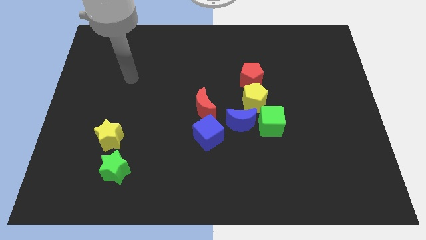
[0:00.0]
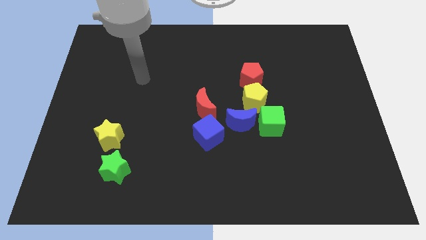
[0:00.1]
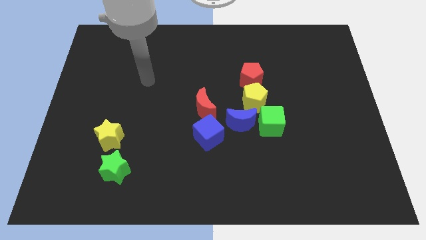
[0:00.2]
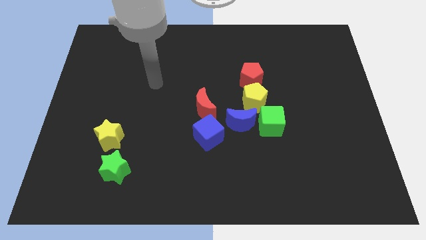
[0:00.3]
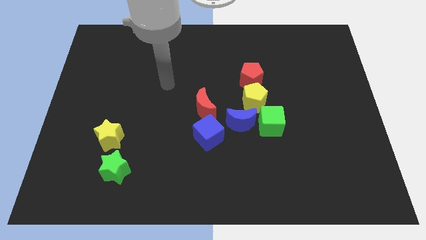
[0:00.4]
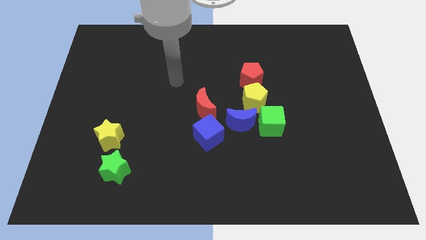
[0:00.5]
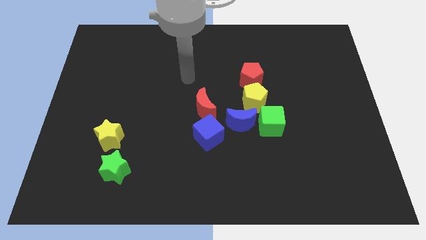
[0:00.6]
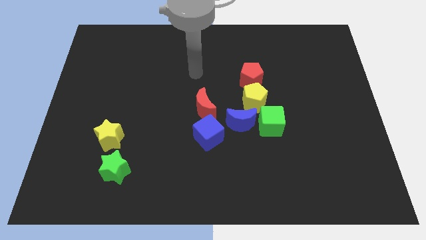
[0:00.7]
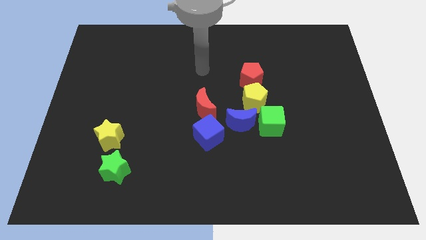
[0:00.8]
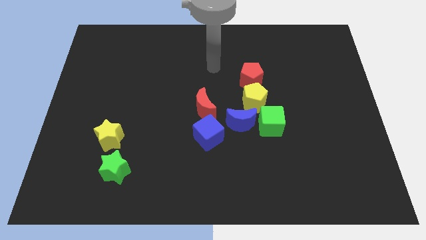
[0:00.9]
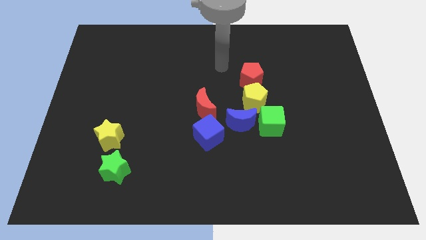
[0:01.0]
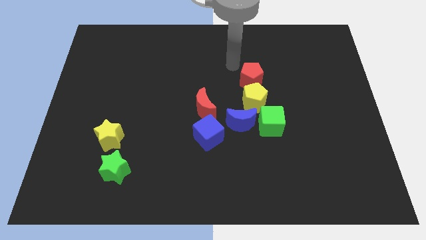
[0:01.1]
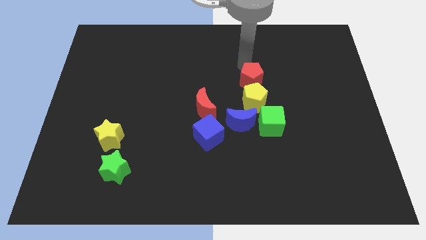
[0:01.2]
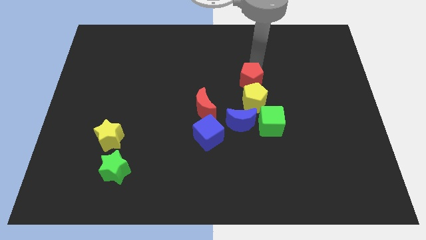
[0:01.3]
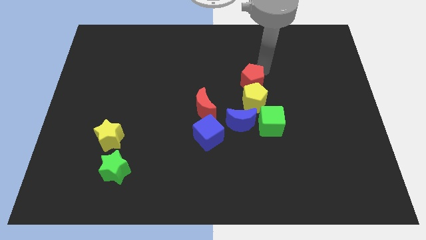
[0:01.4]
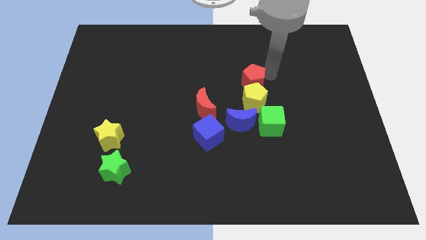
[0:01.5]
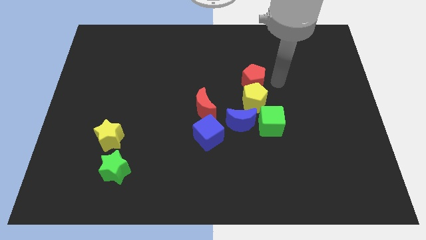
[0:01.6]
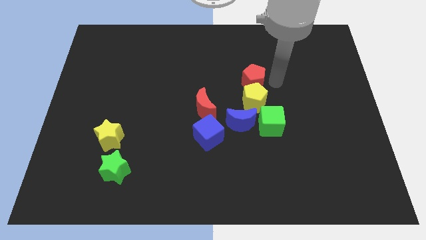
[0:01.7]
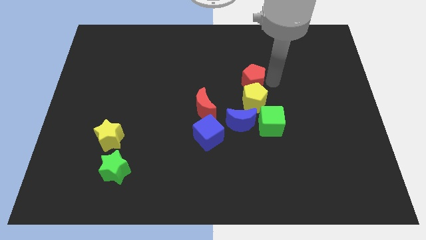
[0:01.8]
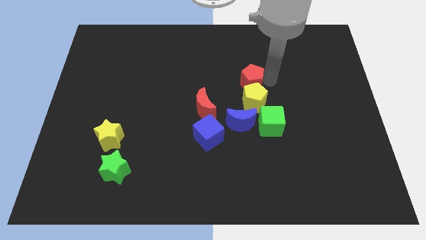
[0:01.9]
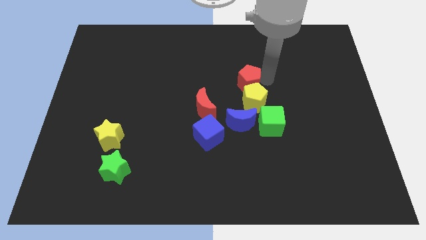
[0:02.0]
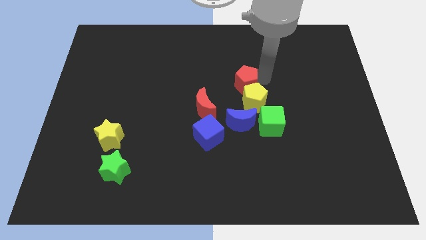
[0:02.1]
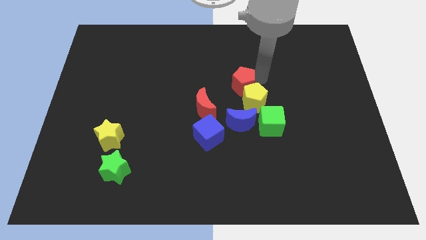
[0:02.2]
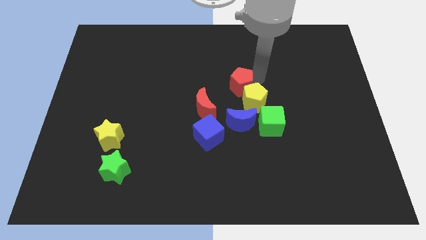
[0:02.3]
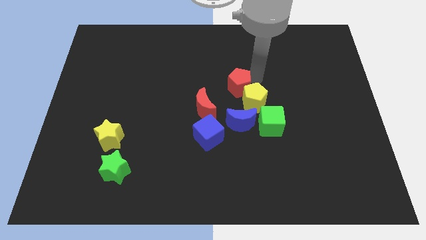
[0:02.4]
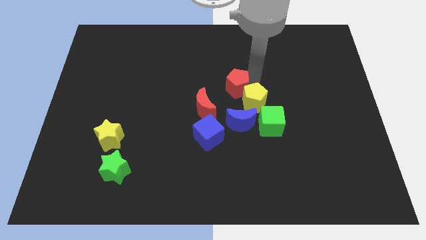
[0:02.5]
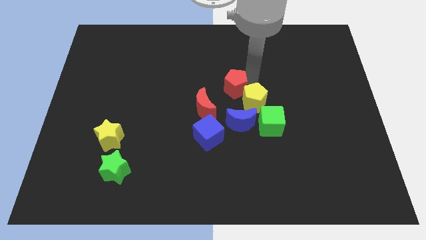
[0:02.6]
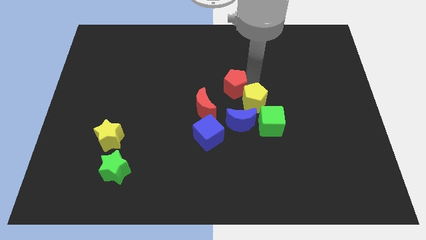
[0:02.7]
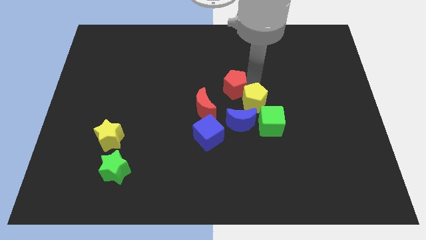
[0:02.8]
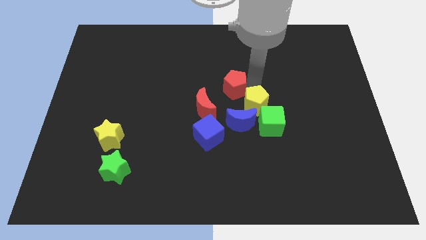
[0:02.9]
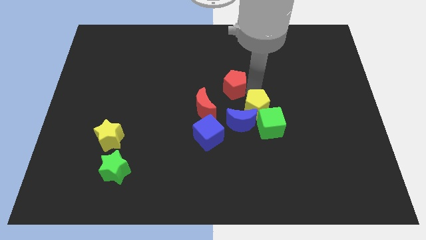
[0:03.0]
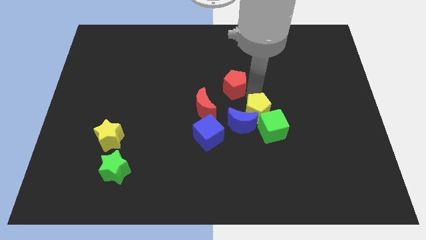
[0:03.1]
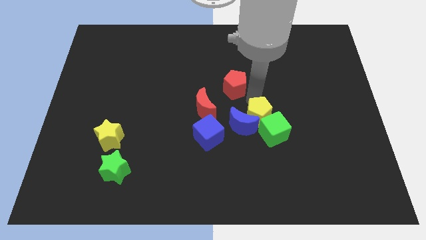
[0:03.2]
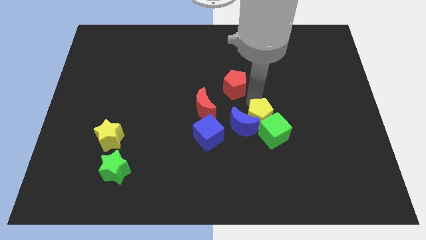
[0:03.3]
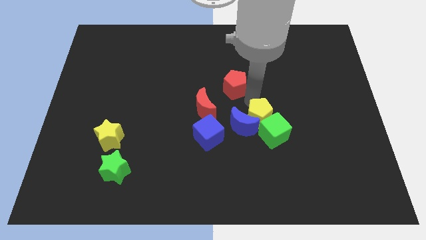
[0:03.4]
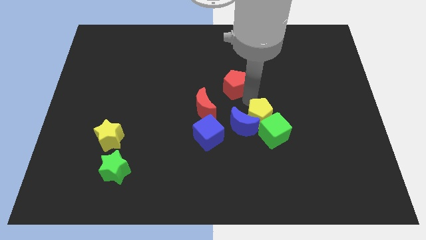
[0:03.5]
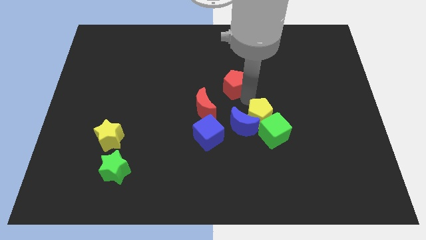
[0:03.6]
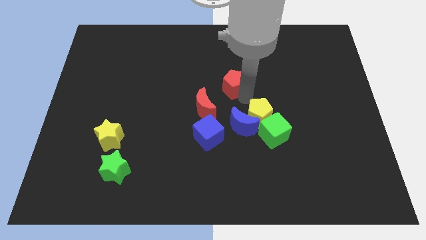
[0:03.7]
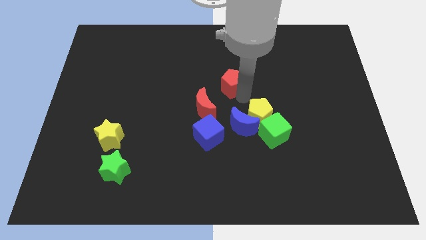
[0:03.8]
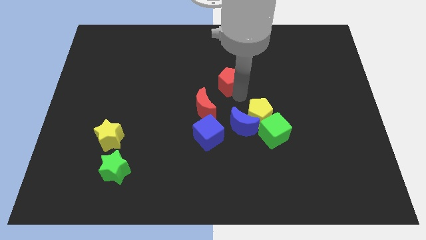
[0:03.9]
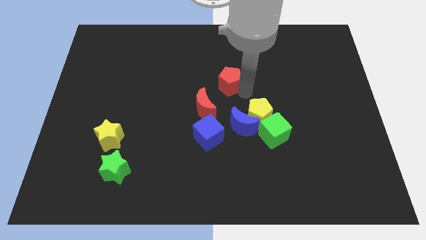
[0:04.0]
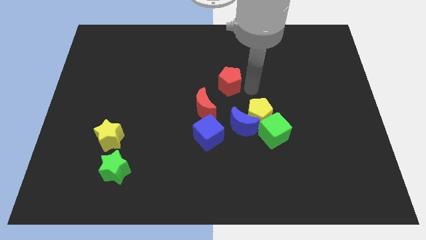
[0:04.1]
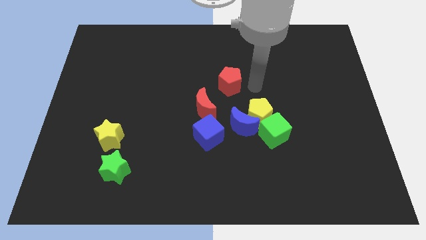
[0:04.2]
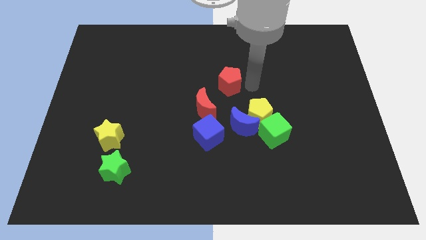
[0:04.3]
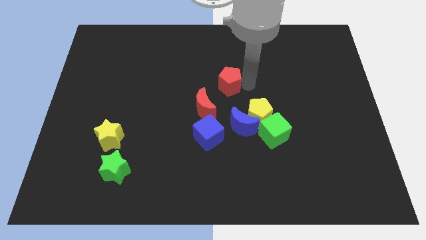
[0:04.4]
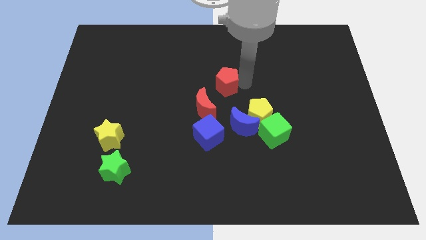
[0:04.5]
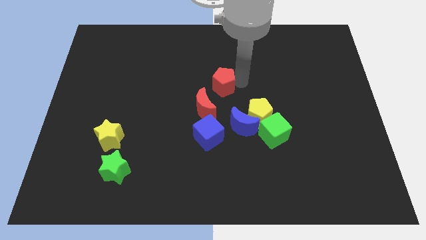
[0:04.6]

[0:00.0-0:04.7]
slightly move the red pentagon to the left

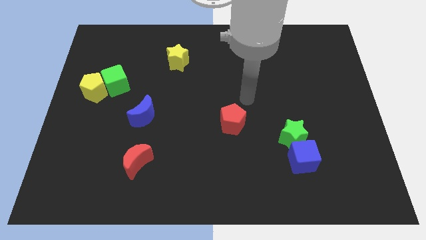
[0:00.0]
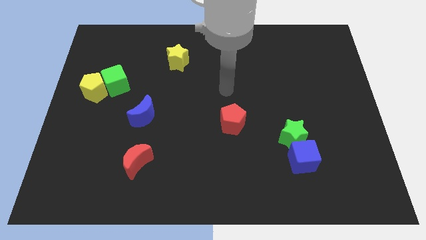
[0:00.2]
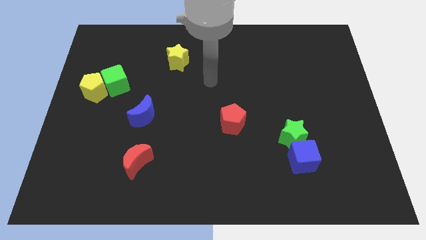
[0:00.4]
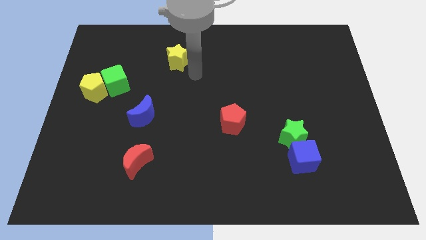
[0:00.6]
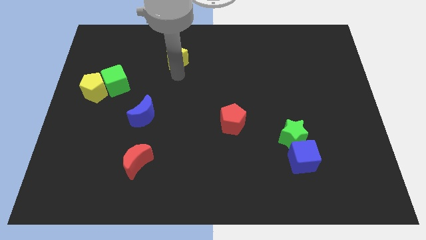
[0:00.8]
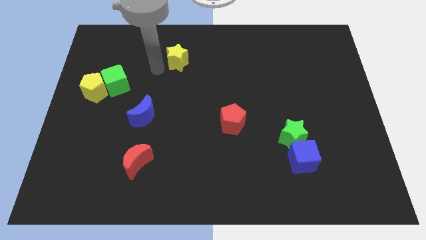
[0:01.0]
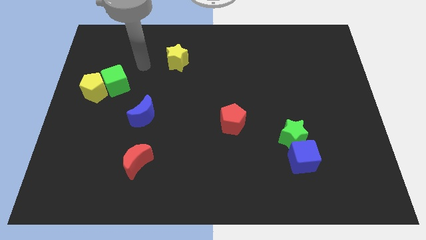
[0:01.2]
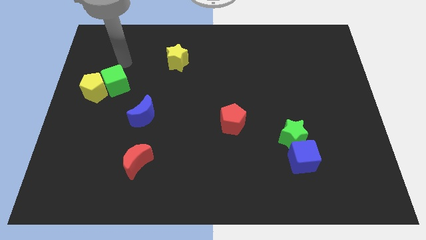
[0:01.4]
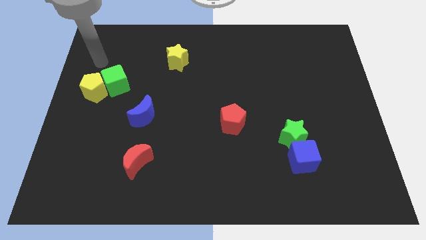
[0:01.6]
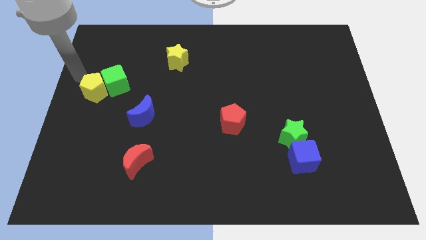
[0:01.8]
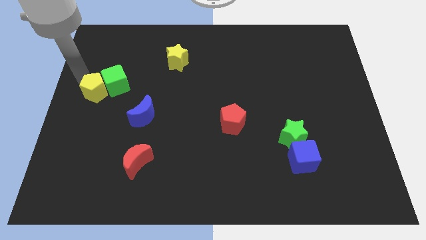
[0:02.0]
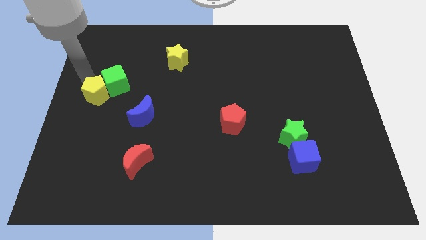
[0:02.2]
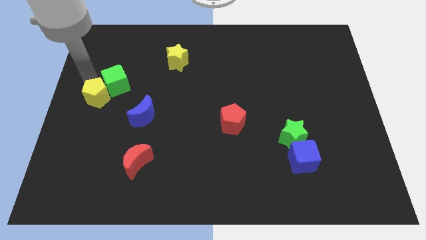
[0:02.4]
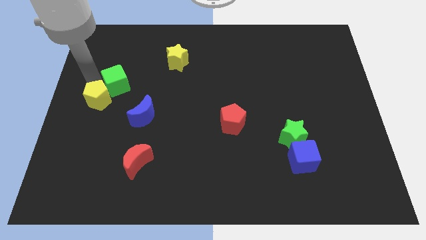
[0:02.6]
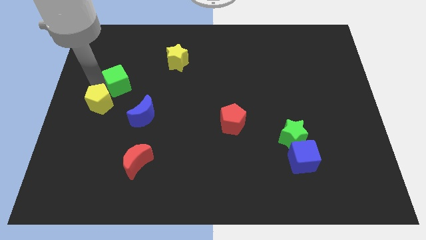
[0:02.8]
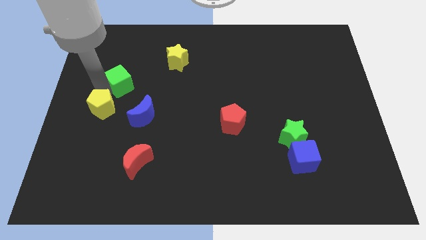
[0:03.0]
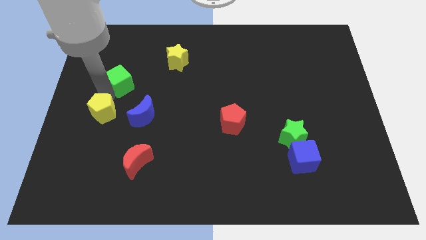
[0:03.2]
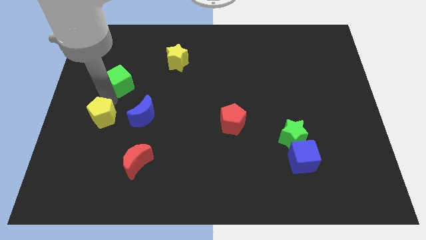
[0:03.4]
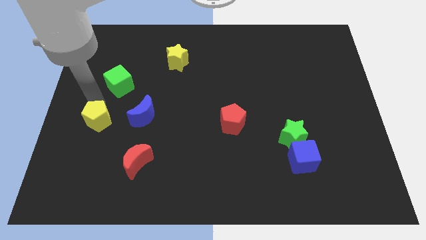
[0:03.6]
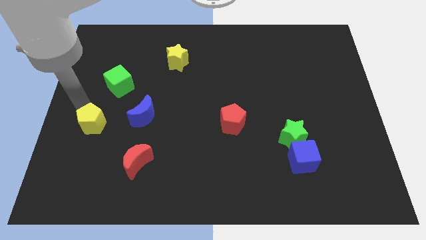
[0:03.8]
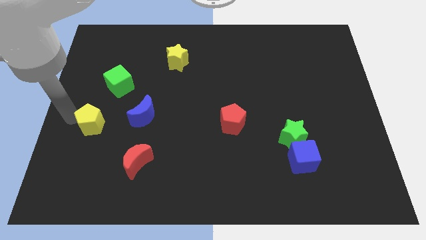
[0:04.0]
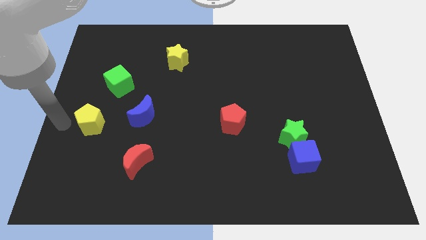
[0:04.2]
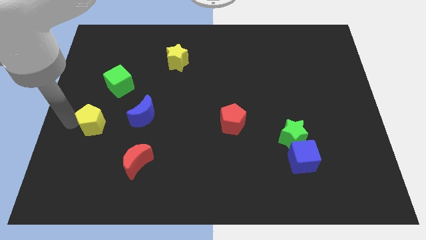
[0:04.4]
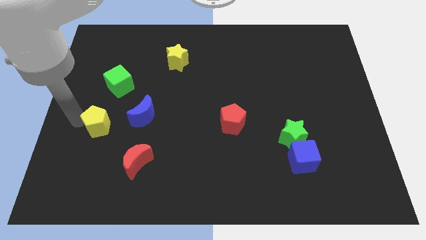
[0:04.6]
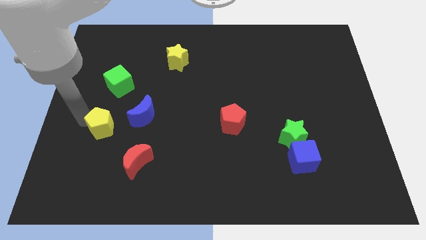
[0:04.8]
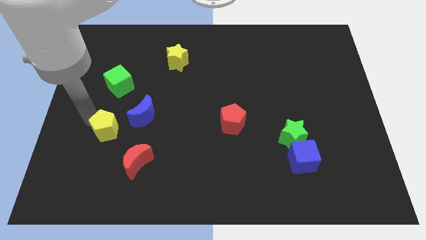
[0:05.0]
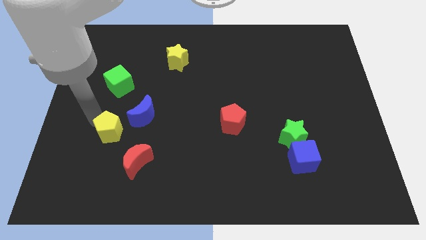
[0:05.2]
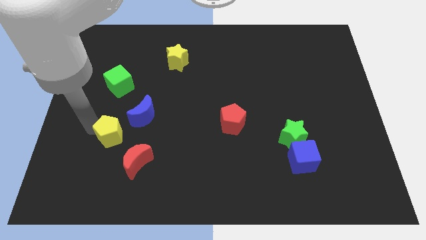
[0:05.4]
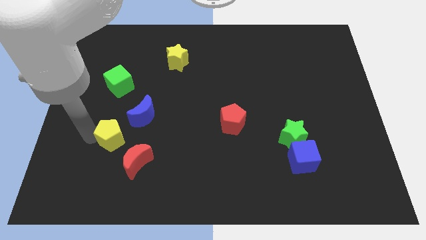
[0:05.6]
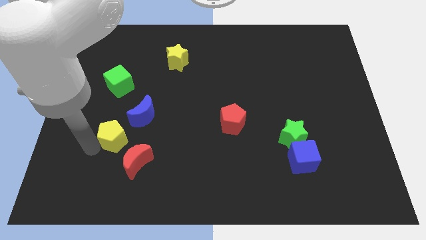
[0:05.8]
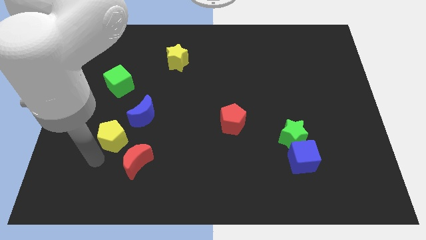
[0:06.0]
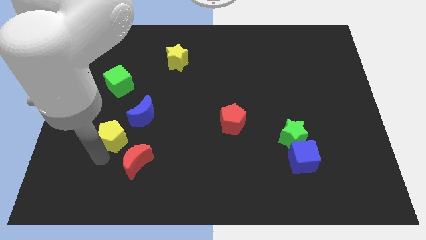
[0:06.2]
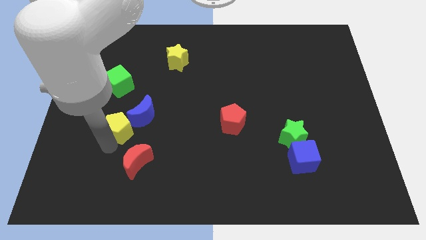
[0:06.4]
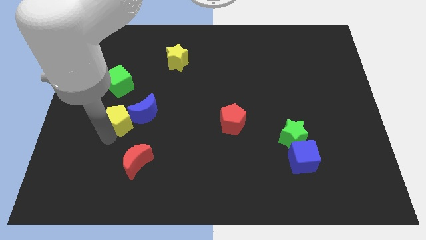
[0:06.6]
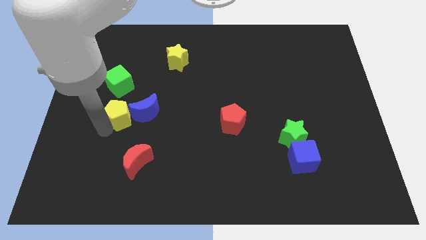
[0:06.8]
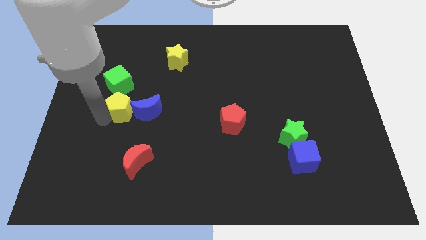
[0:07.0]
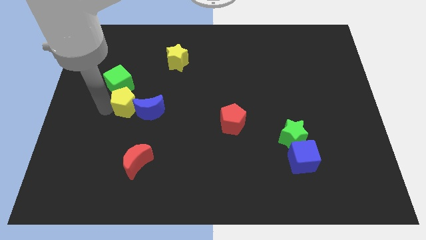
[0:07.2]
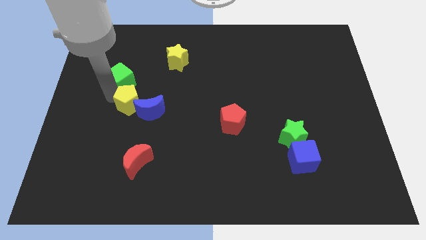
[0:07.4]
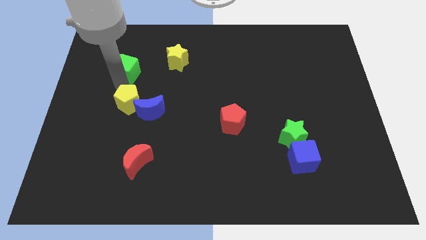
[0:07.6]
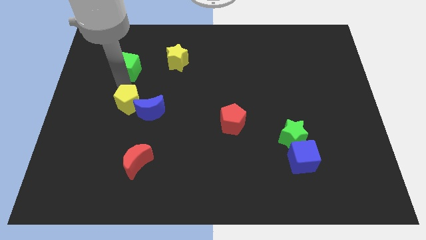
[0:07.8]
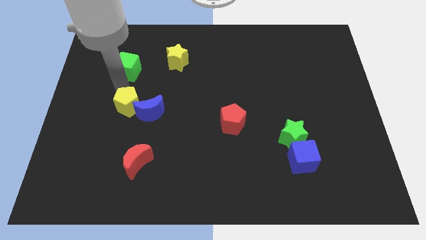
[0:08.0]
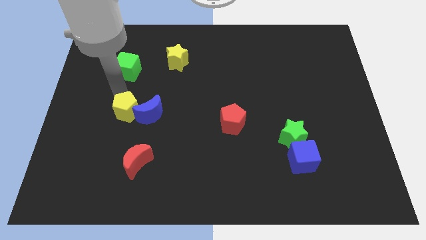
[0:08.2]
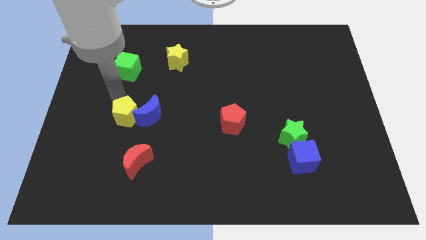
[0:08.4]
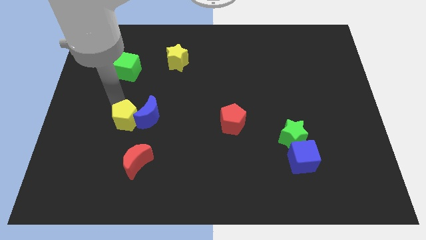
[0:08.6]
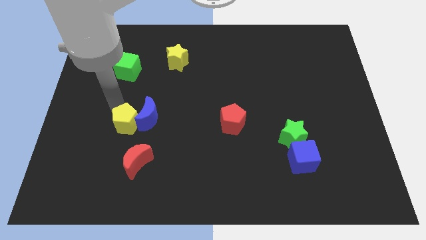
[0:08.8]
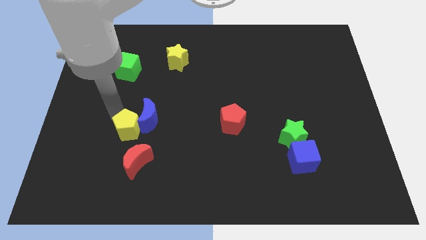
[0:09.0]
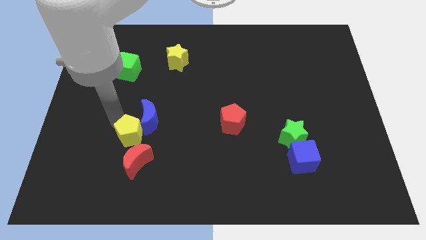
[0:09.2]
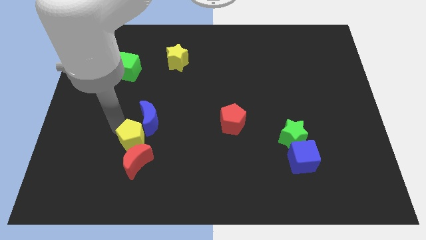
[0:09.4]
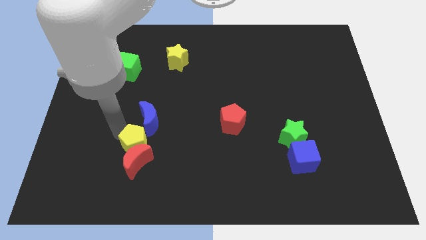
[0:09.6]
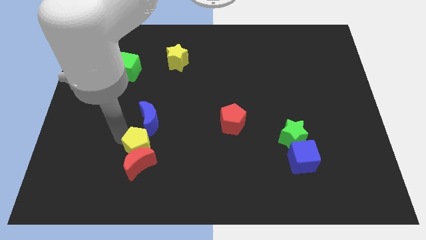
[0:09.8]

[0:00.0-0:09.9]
move the yellow pentagon down and then right
